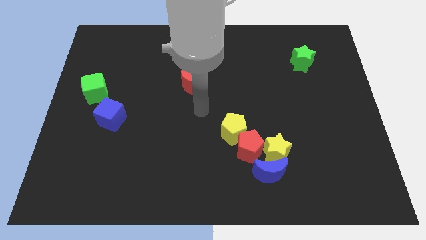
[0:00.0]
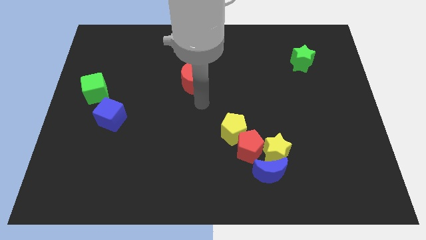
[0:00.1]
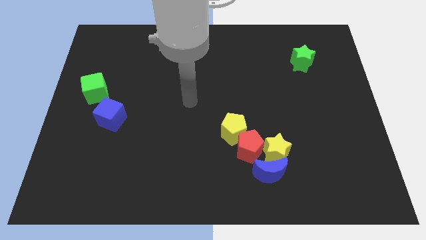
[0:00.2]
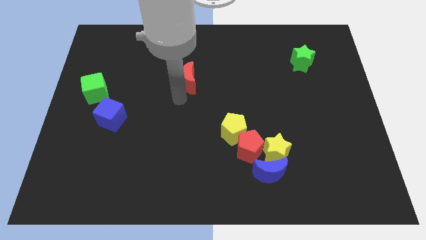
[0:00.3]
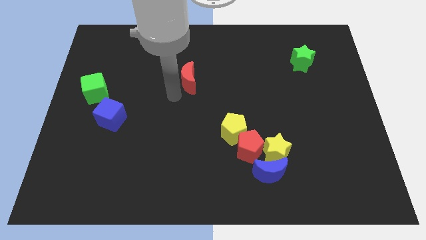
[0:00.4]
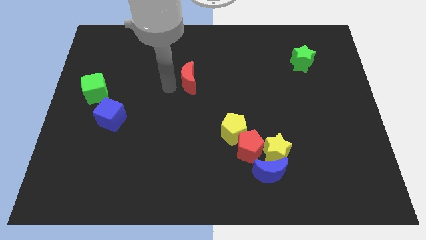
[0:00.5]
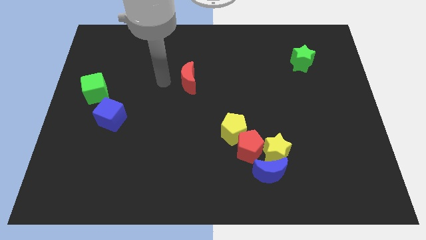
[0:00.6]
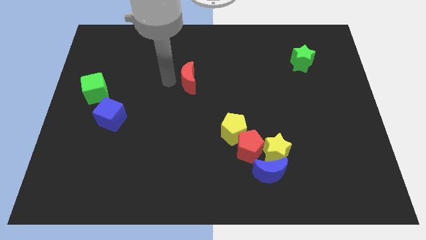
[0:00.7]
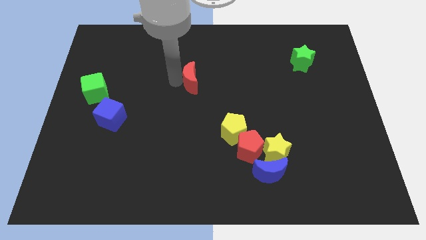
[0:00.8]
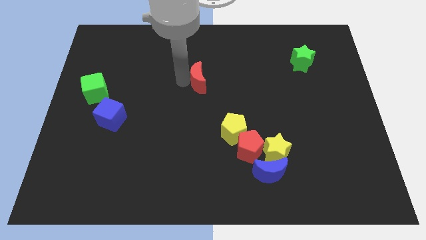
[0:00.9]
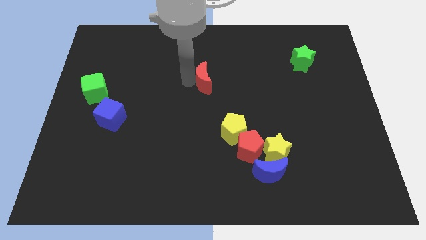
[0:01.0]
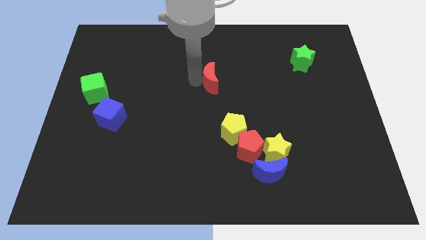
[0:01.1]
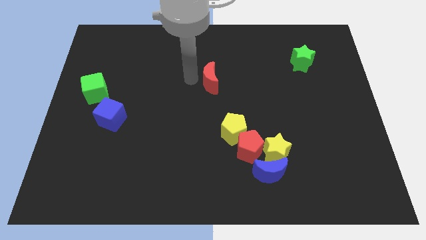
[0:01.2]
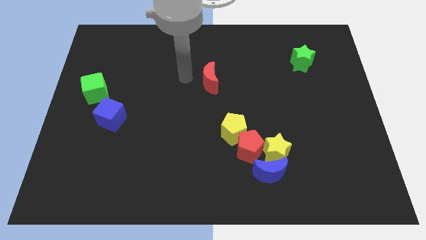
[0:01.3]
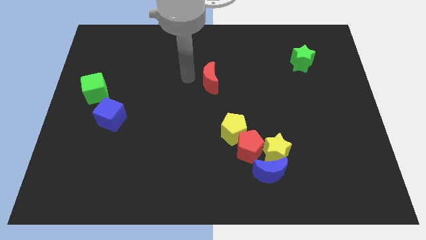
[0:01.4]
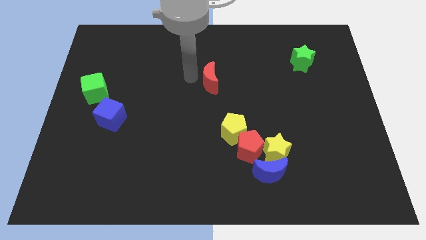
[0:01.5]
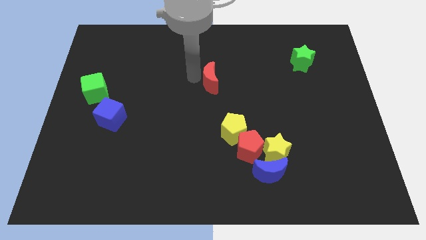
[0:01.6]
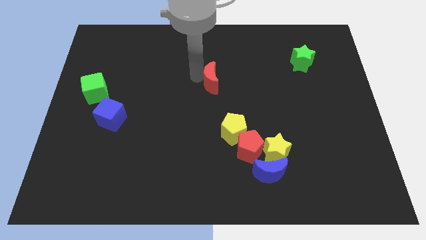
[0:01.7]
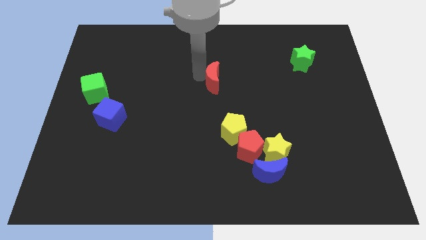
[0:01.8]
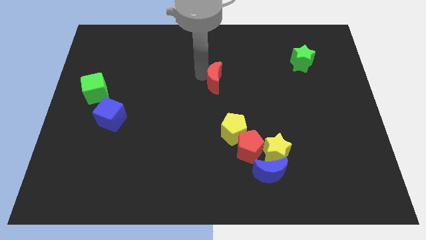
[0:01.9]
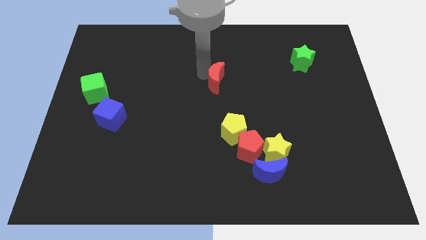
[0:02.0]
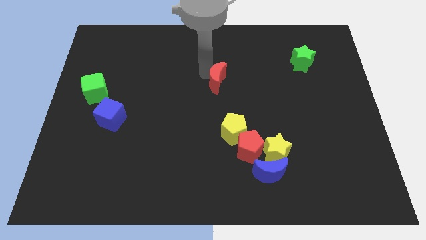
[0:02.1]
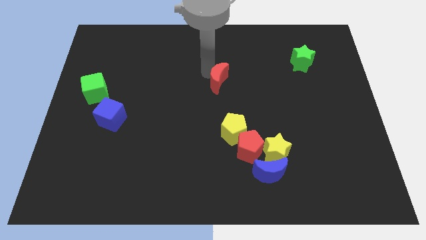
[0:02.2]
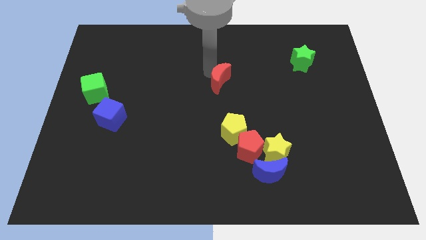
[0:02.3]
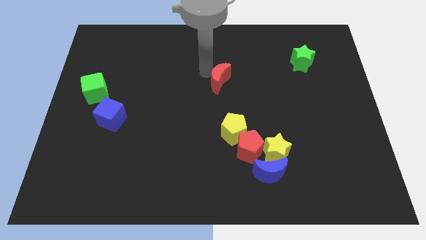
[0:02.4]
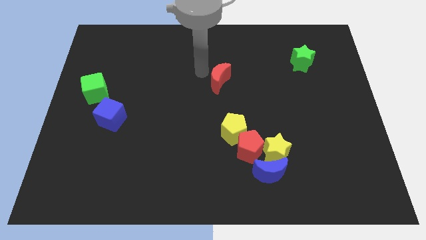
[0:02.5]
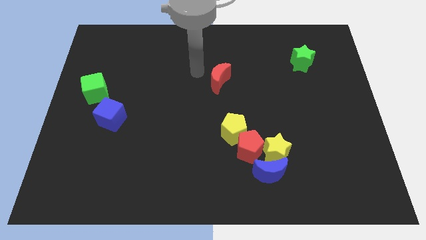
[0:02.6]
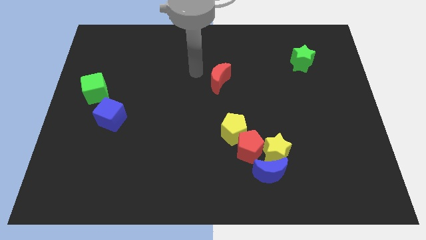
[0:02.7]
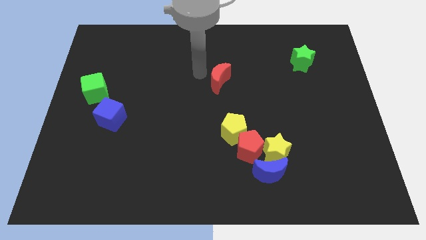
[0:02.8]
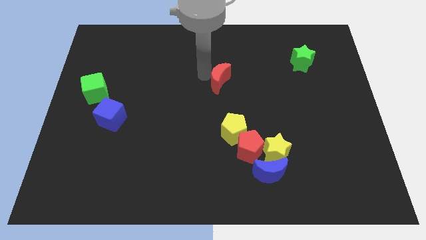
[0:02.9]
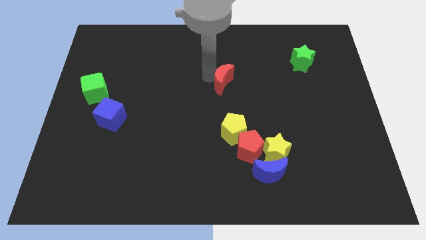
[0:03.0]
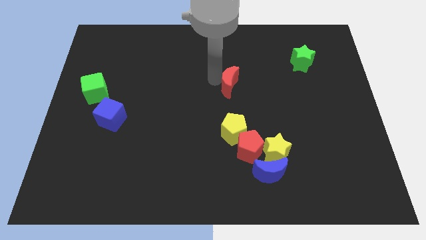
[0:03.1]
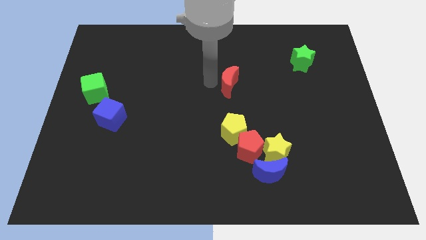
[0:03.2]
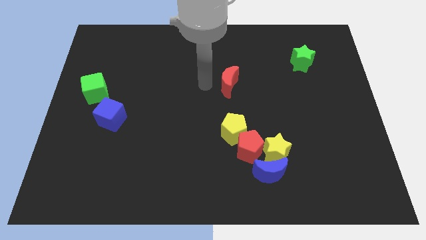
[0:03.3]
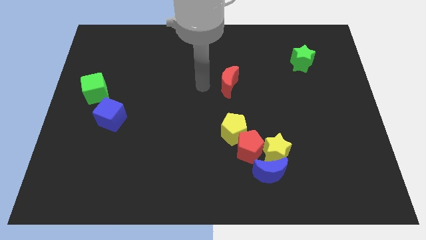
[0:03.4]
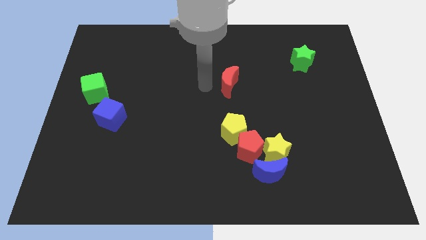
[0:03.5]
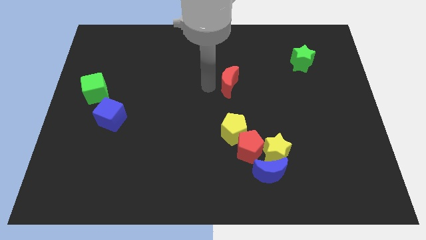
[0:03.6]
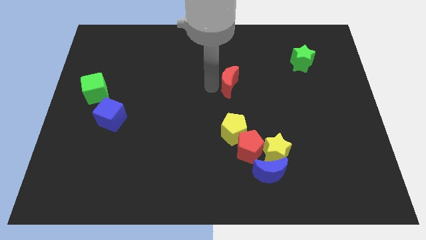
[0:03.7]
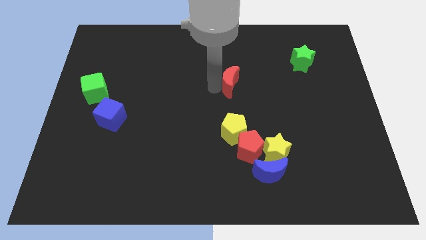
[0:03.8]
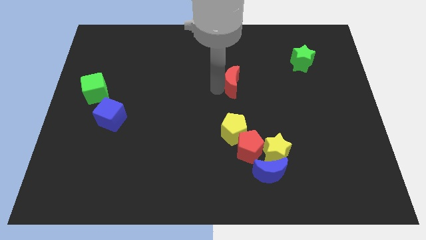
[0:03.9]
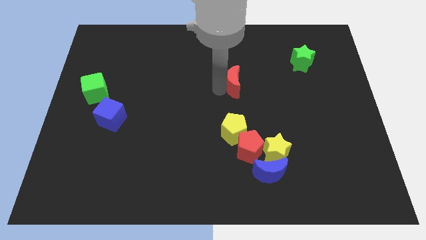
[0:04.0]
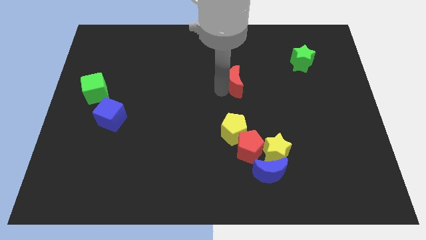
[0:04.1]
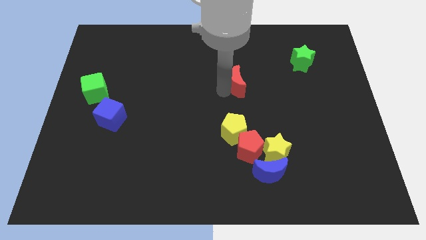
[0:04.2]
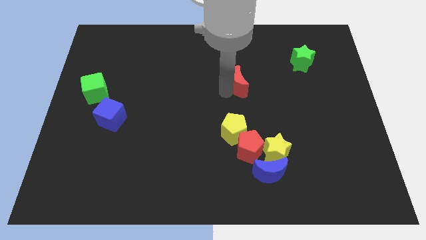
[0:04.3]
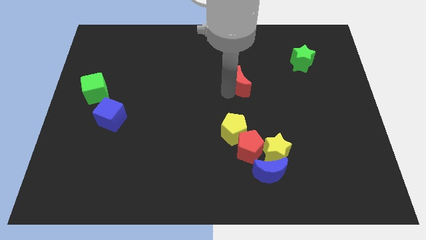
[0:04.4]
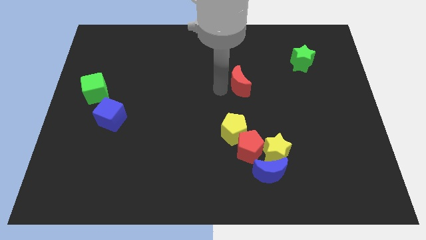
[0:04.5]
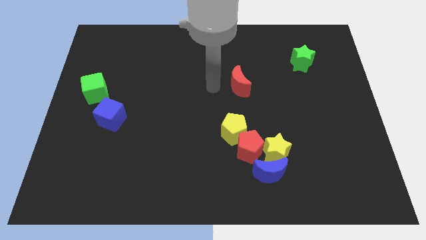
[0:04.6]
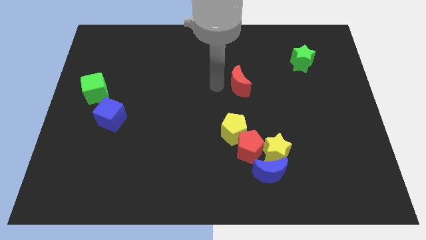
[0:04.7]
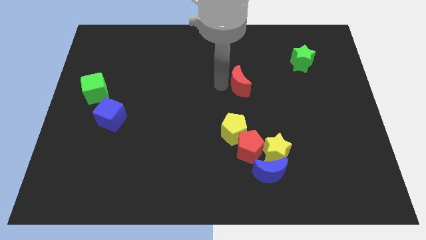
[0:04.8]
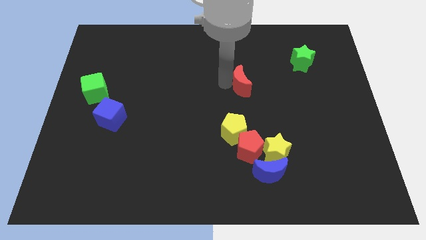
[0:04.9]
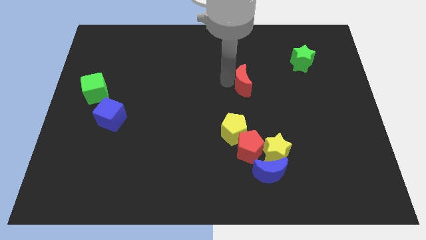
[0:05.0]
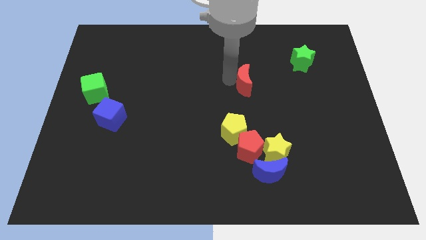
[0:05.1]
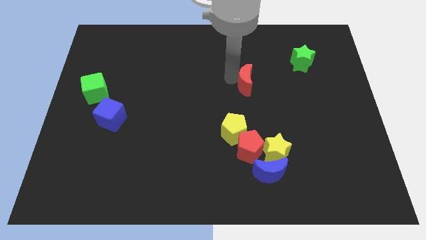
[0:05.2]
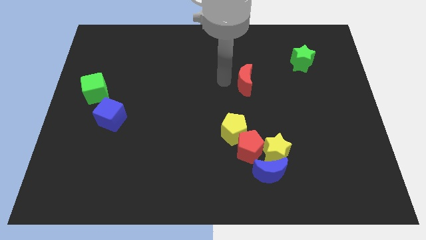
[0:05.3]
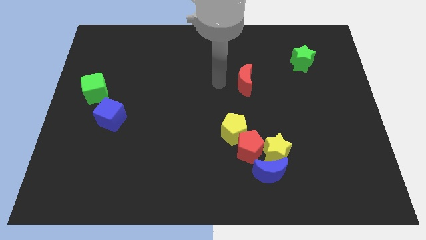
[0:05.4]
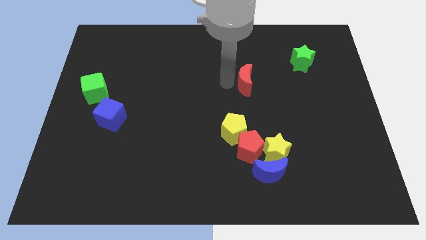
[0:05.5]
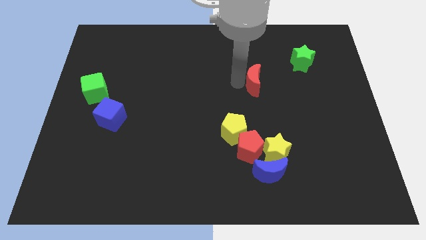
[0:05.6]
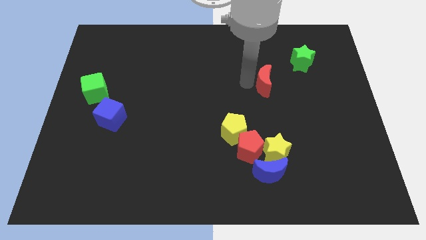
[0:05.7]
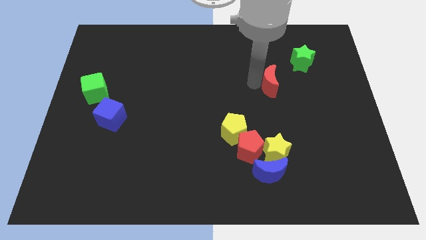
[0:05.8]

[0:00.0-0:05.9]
move the red moon right

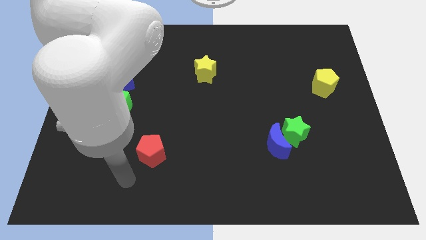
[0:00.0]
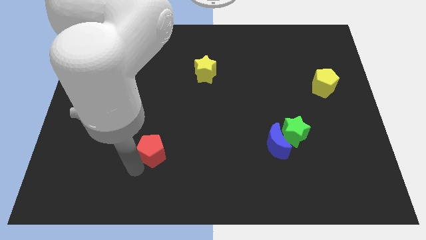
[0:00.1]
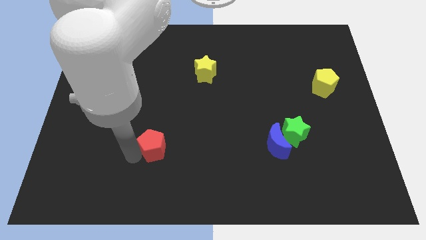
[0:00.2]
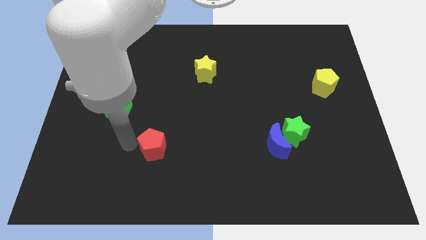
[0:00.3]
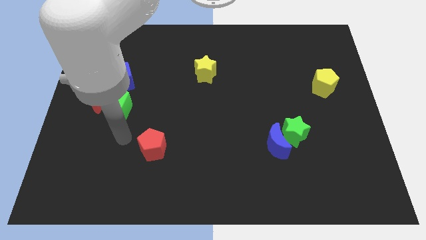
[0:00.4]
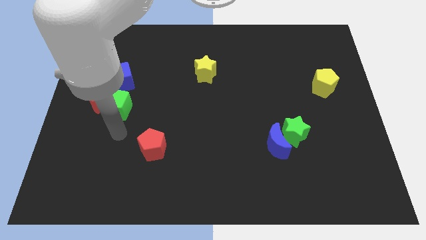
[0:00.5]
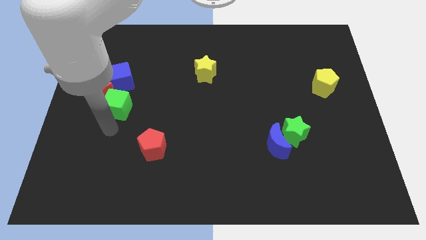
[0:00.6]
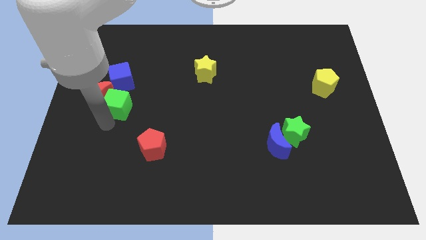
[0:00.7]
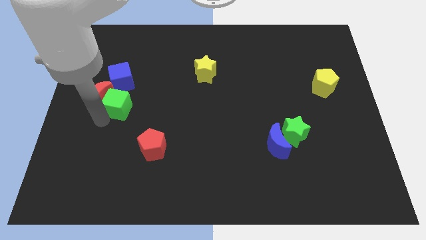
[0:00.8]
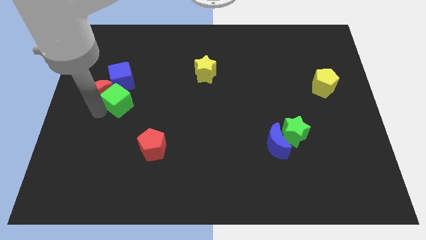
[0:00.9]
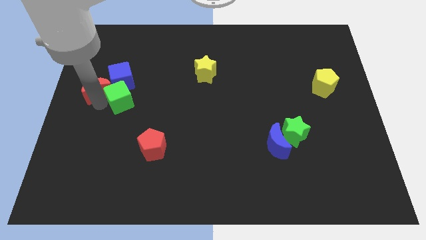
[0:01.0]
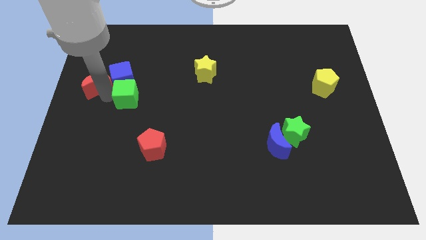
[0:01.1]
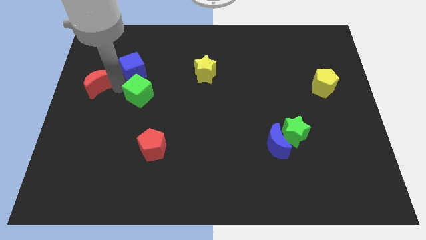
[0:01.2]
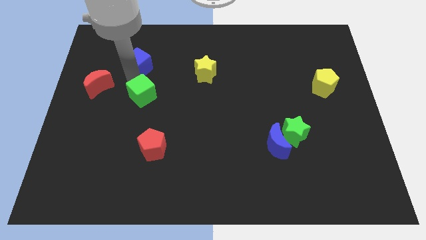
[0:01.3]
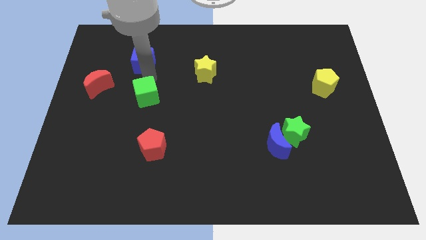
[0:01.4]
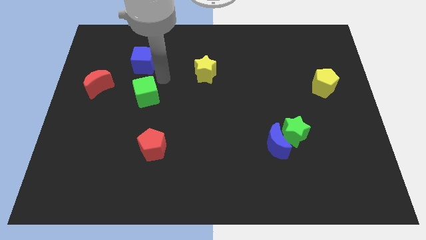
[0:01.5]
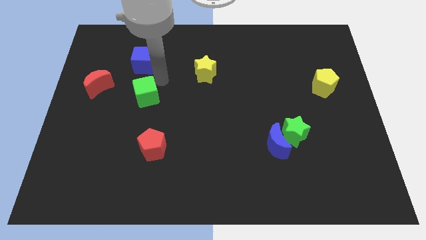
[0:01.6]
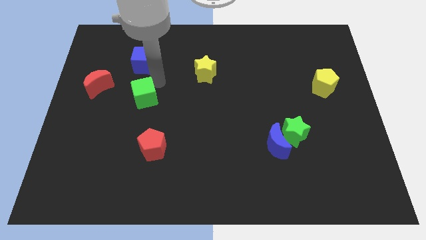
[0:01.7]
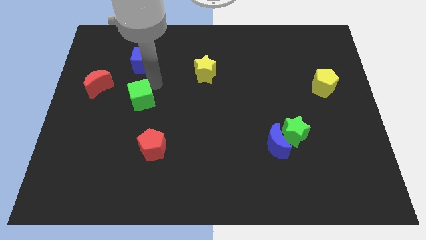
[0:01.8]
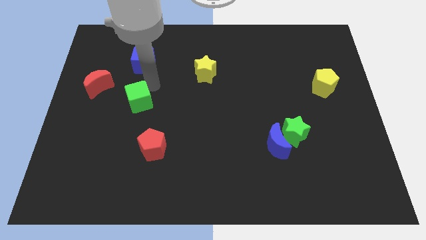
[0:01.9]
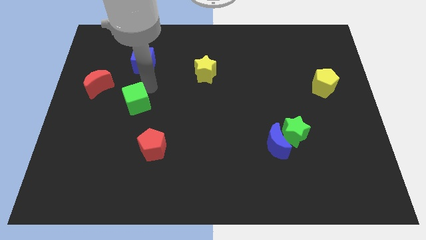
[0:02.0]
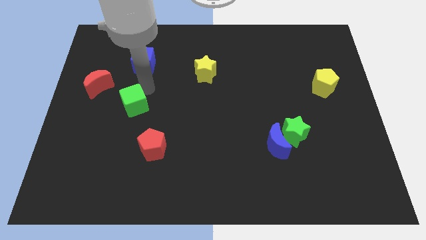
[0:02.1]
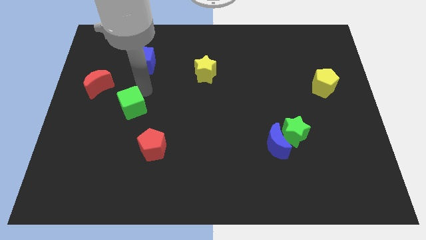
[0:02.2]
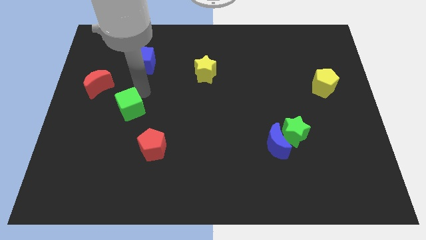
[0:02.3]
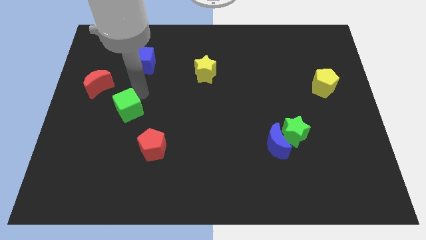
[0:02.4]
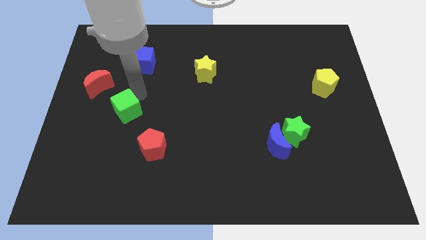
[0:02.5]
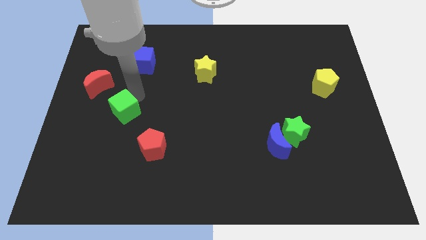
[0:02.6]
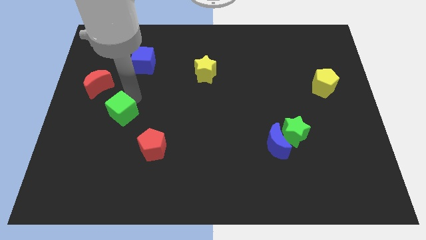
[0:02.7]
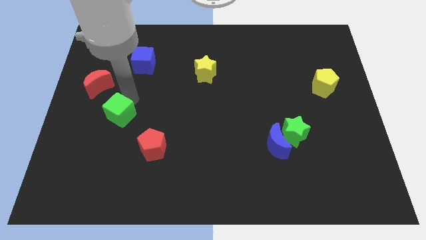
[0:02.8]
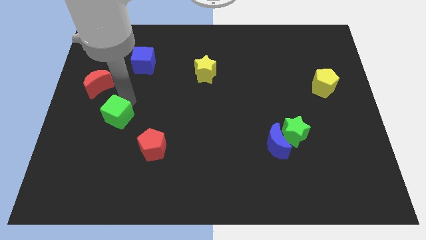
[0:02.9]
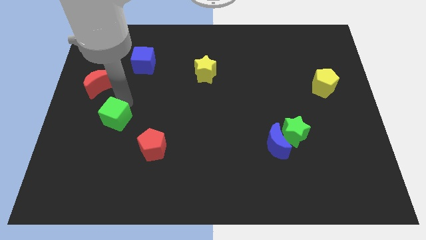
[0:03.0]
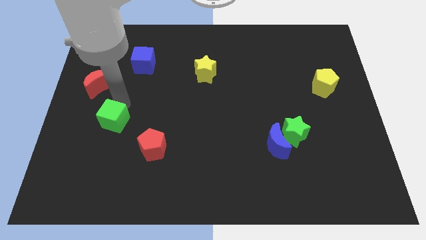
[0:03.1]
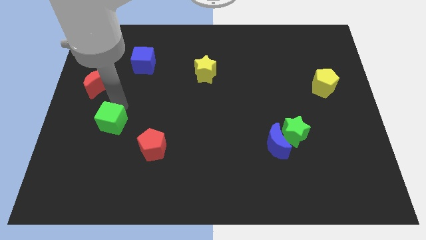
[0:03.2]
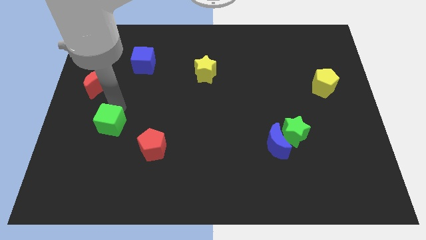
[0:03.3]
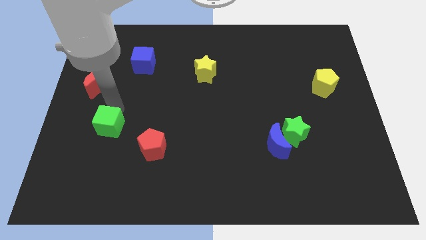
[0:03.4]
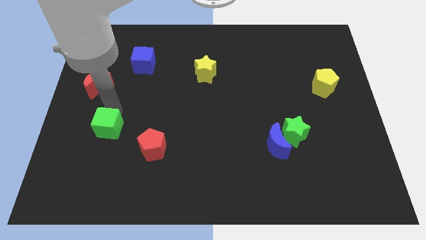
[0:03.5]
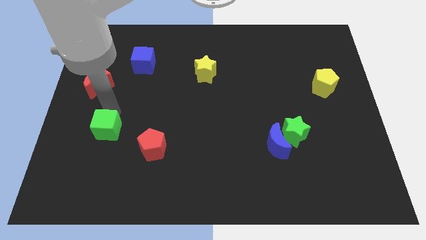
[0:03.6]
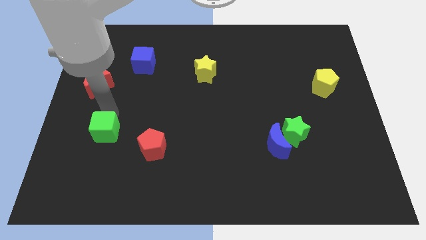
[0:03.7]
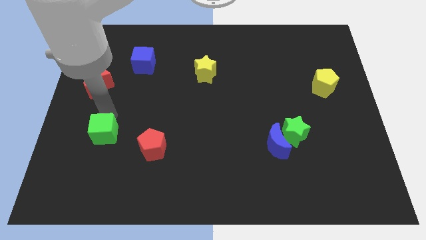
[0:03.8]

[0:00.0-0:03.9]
push the green cube slightly down
